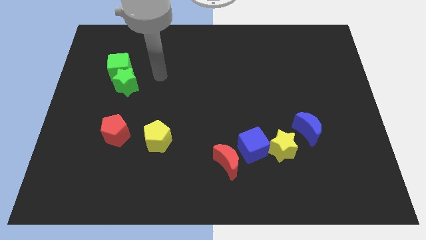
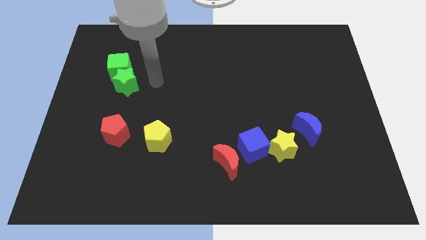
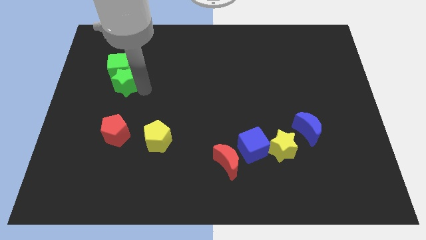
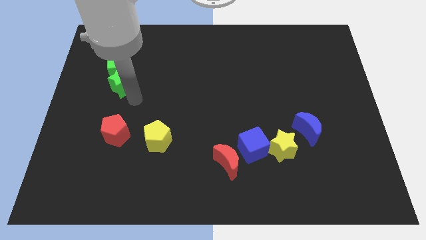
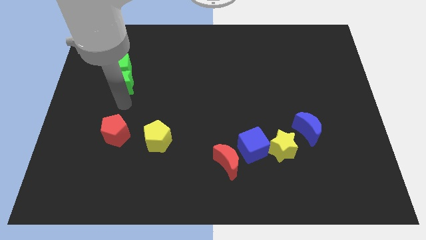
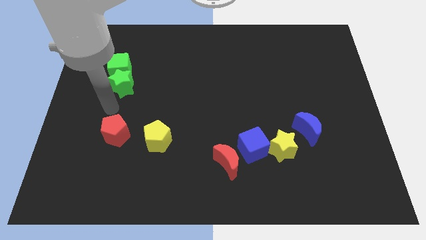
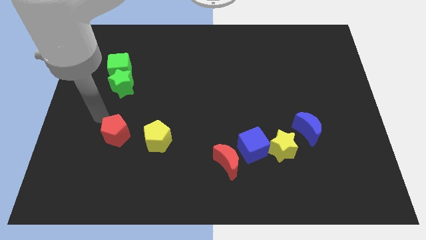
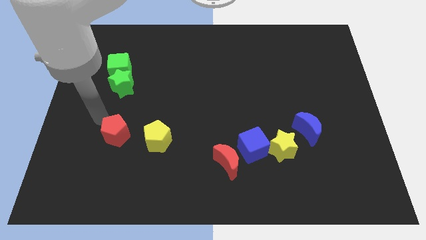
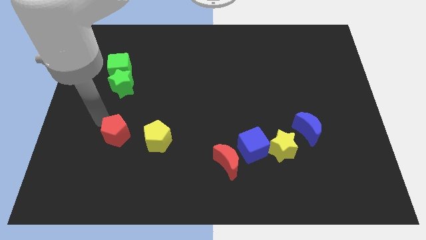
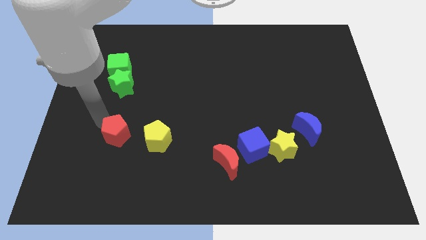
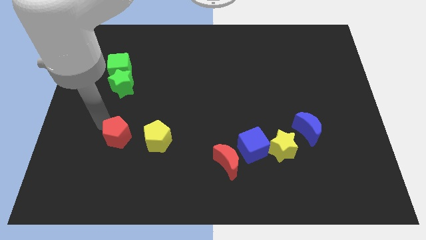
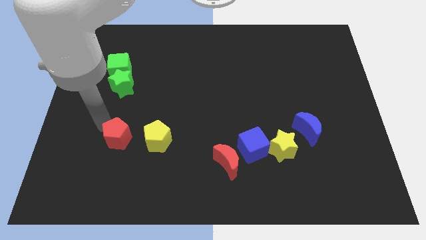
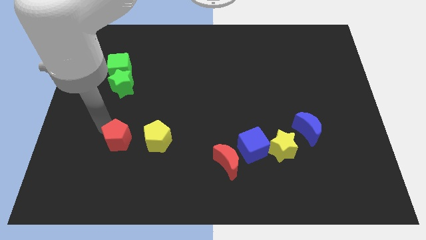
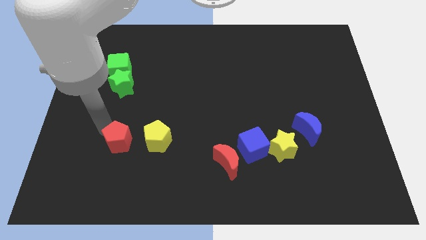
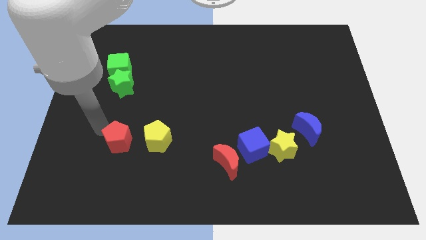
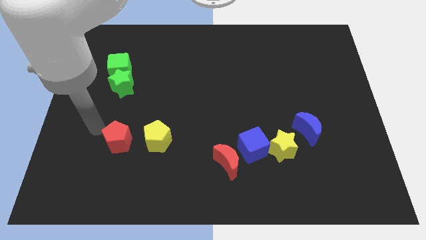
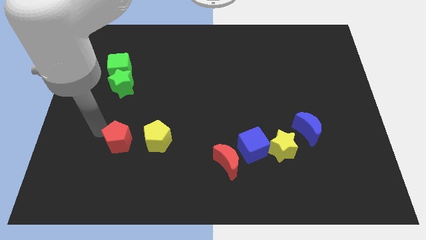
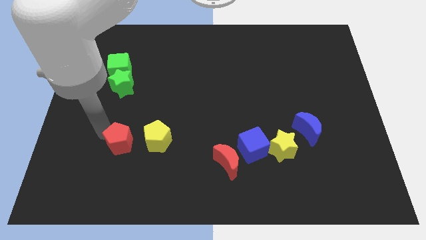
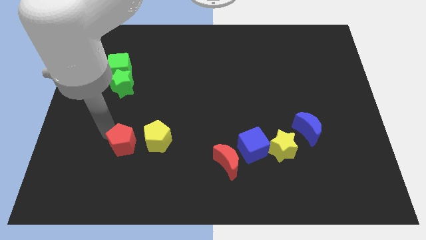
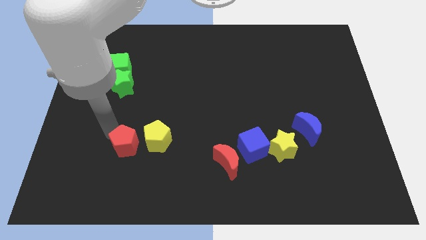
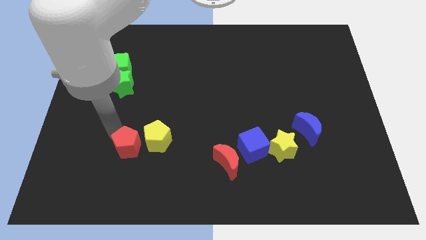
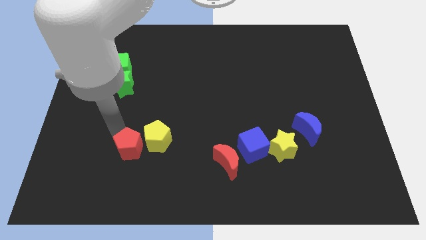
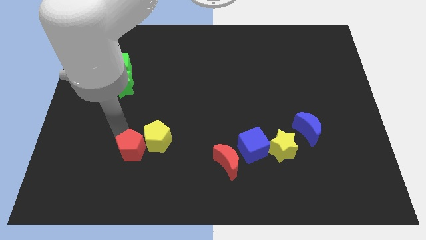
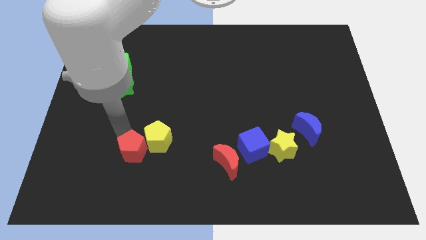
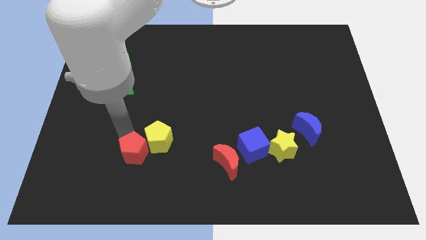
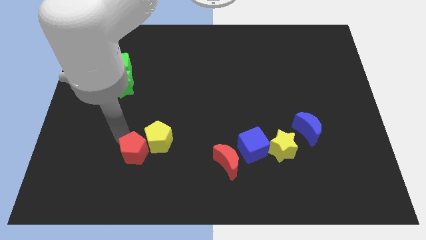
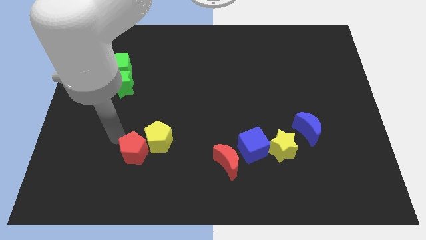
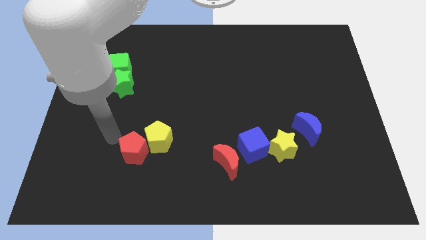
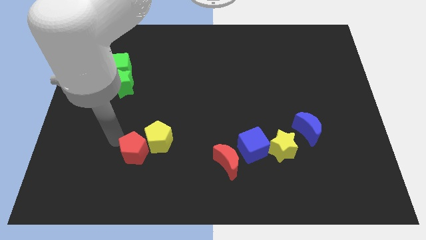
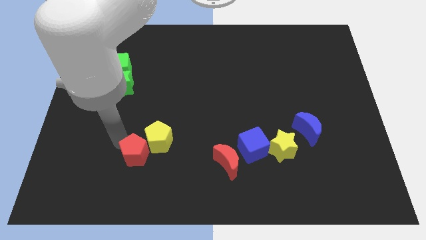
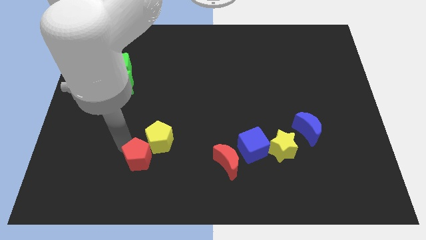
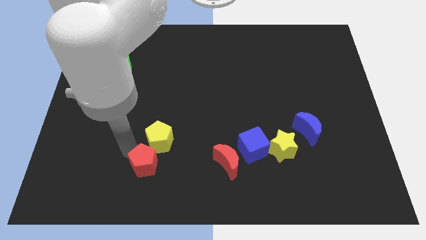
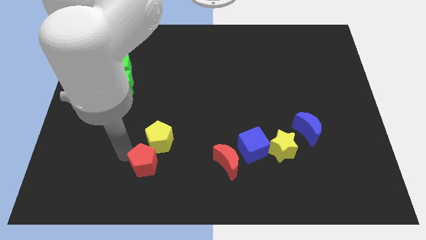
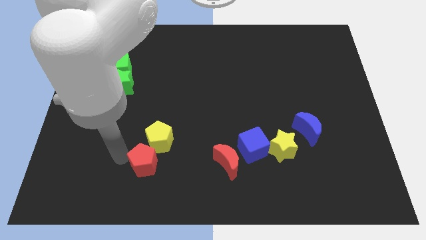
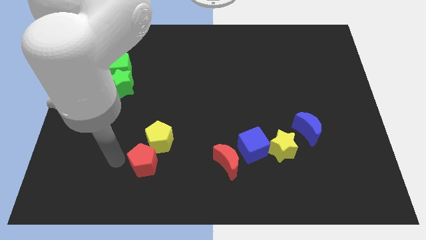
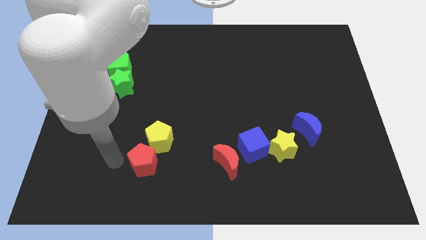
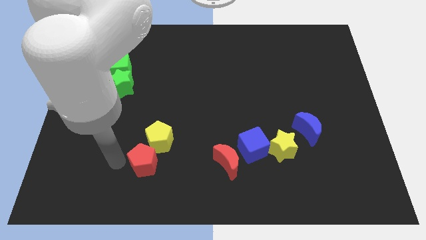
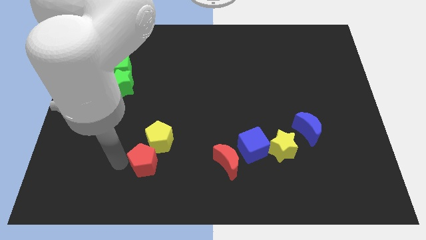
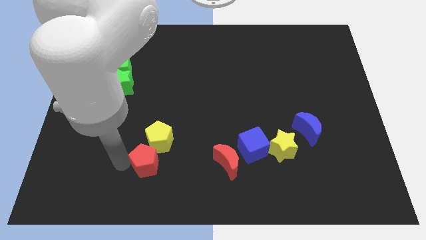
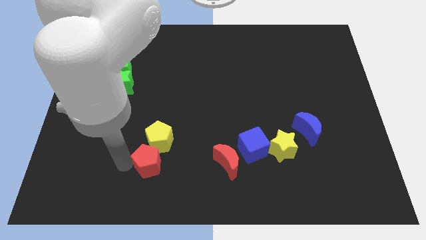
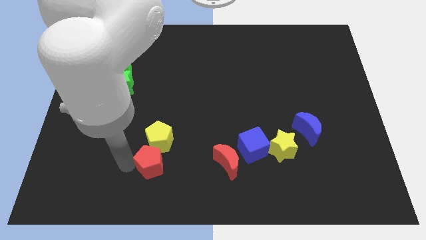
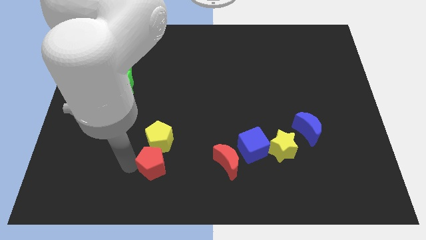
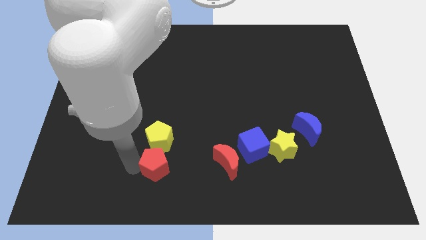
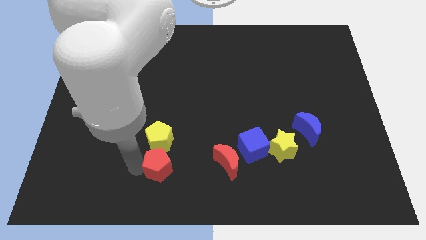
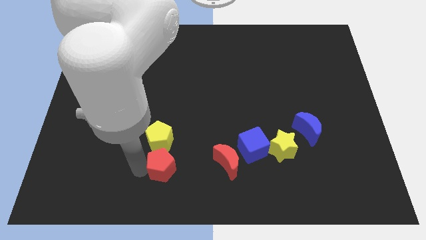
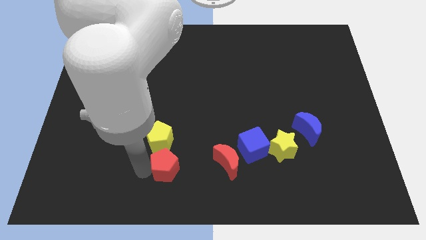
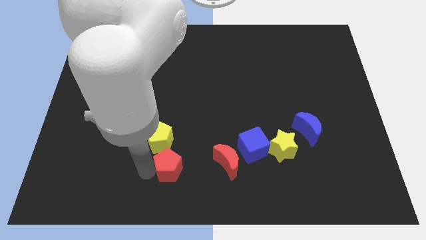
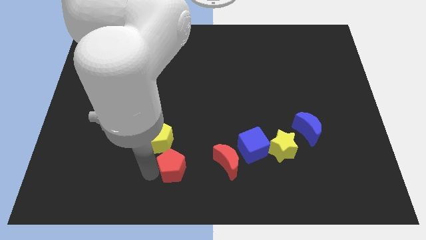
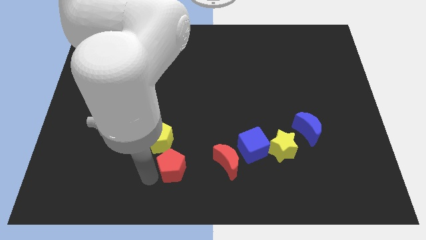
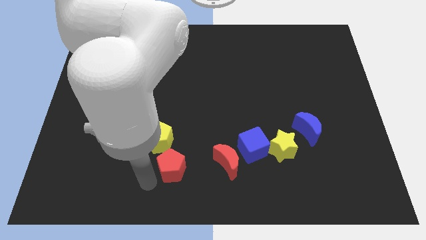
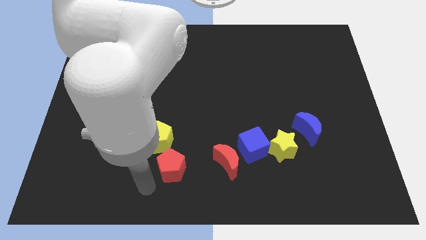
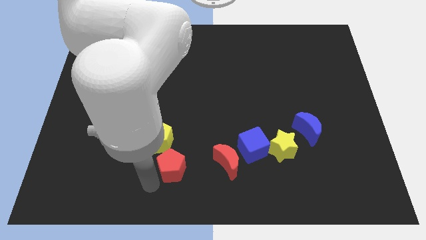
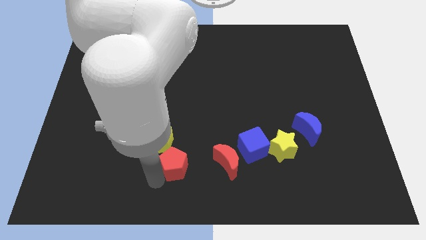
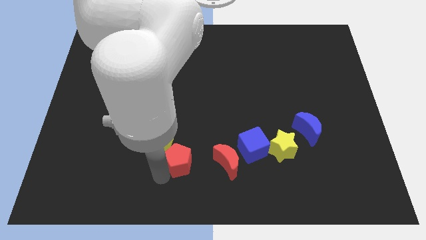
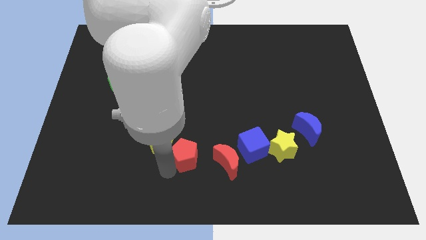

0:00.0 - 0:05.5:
slide the red pentagon to the left of the blue cube

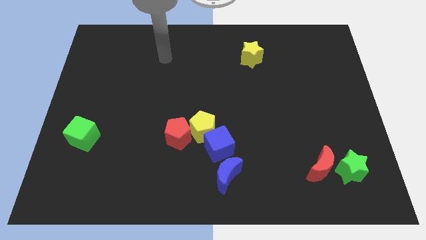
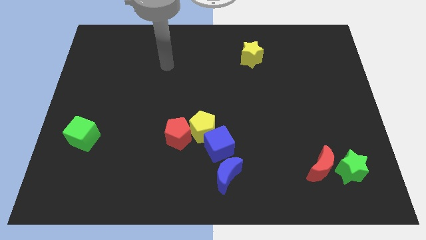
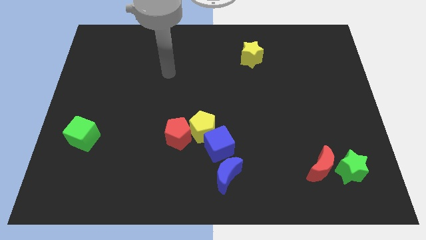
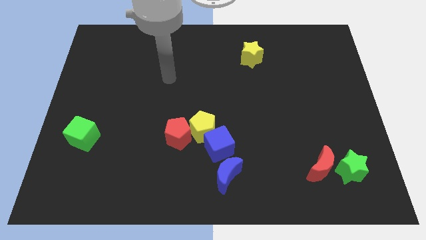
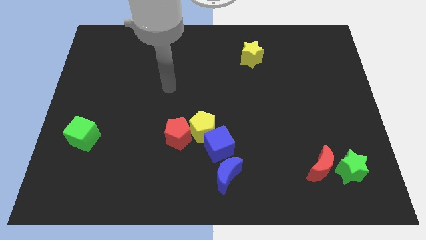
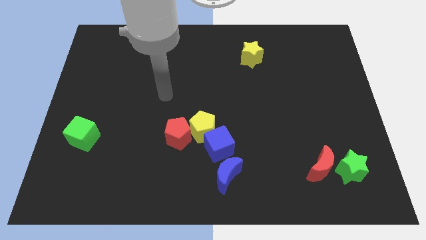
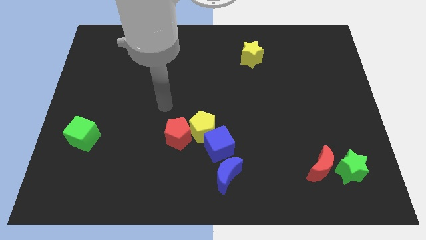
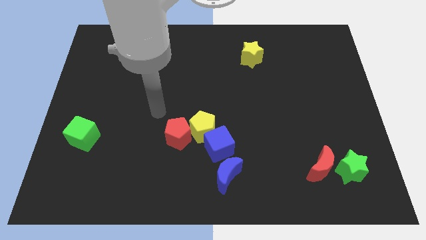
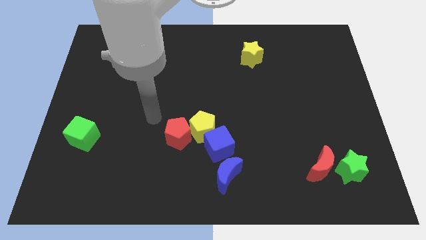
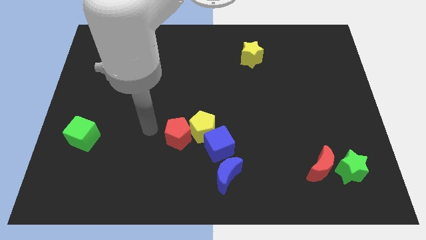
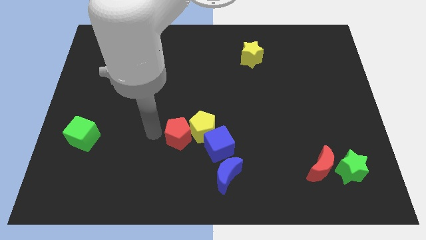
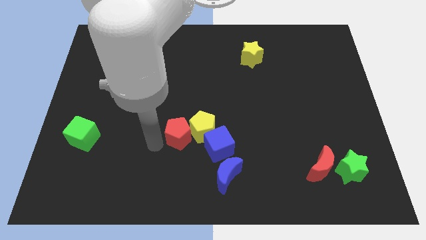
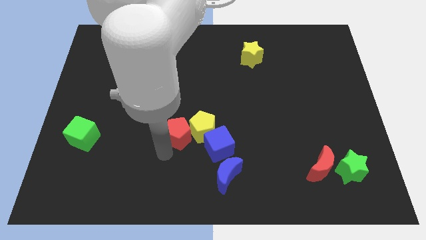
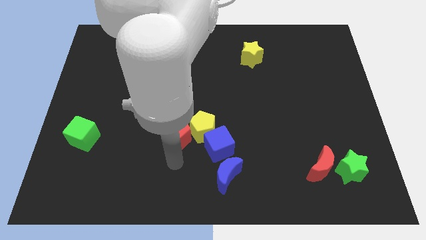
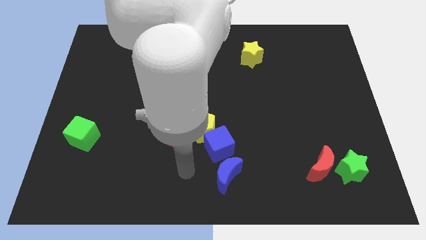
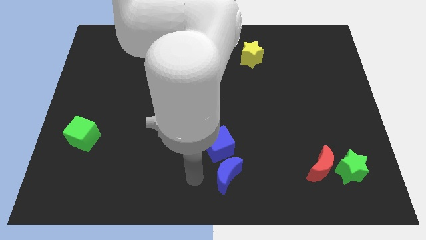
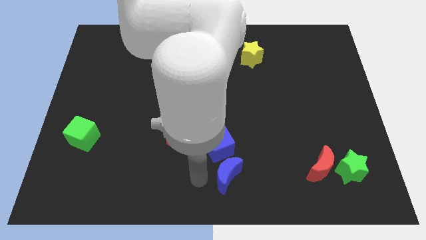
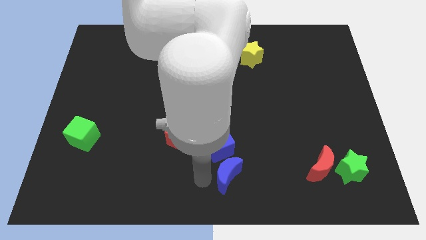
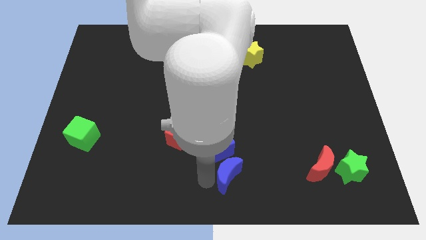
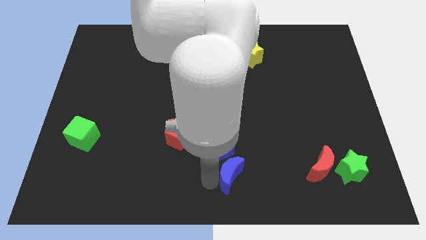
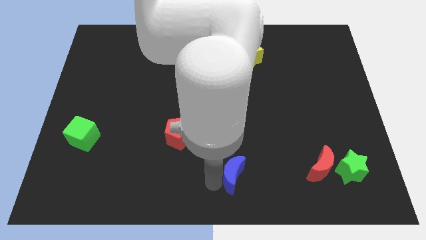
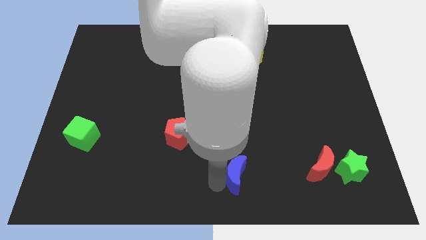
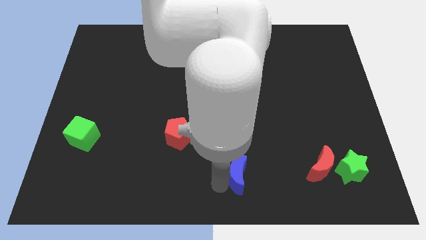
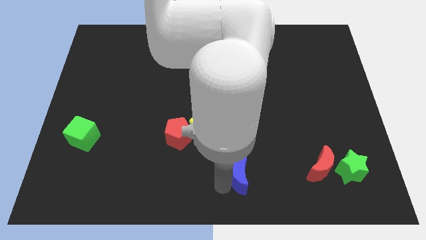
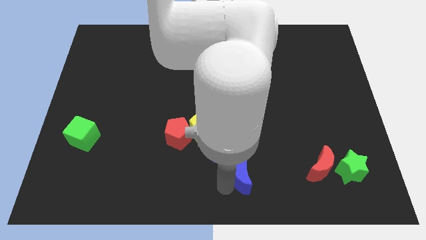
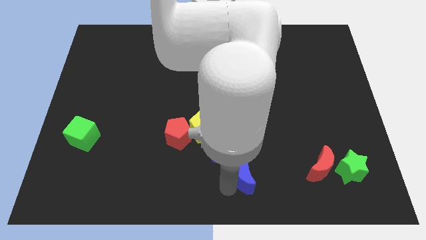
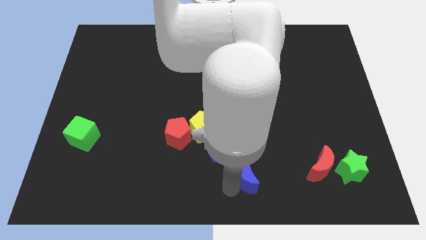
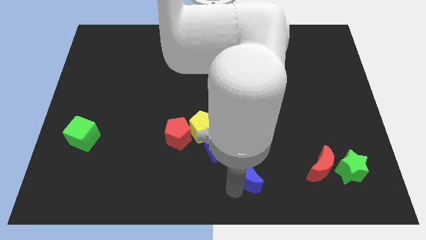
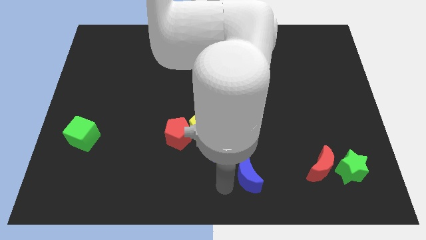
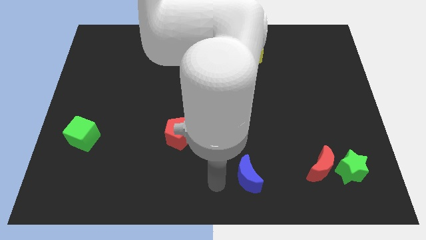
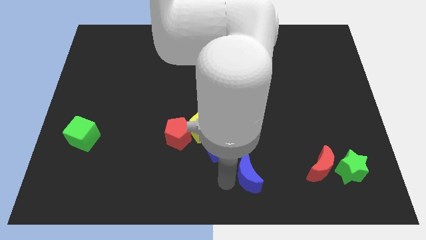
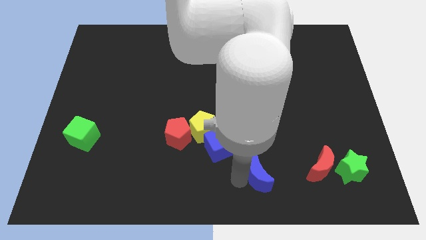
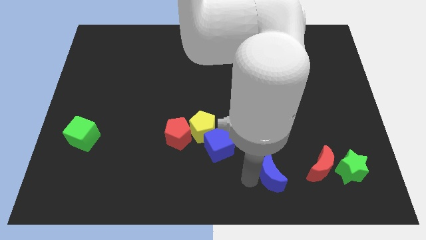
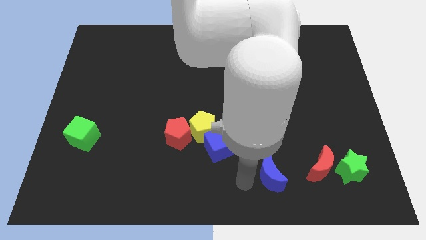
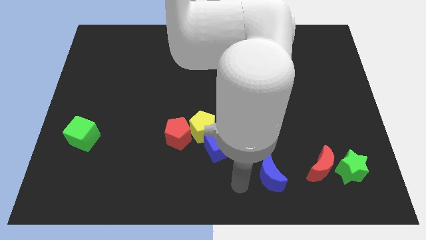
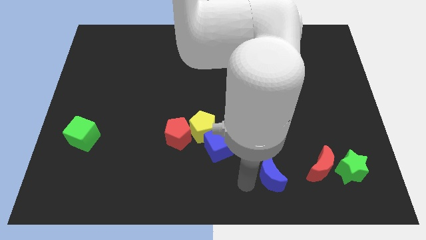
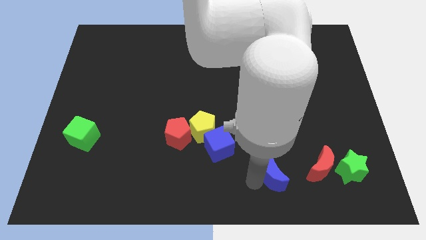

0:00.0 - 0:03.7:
push the blue moon to the left of the green star
